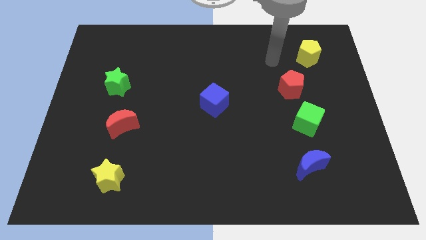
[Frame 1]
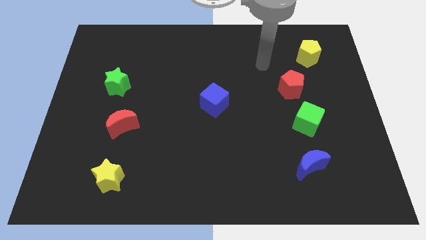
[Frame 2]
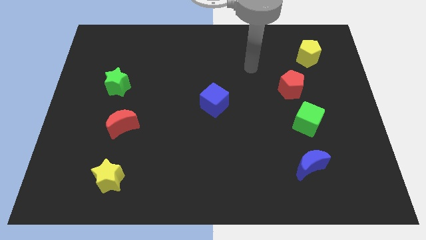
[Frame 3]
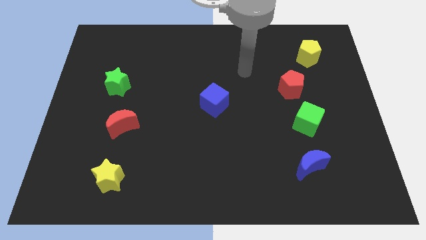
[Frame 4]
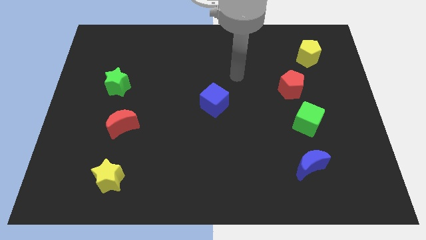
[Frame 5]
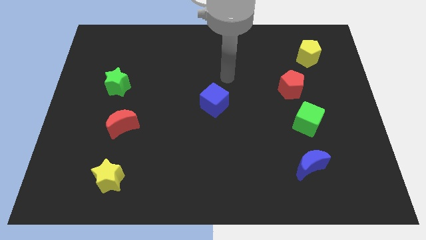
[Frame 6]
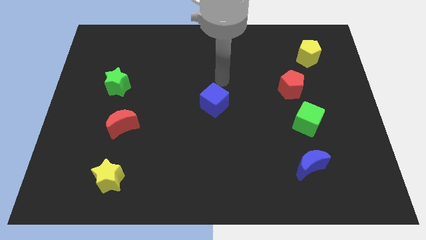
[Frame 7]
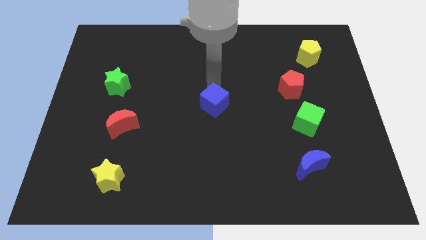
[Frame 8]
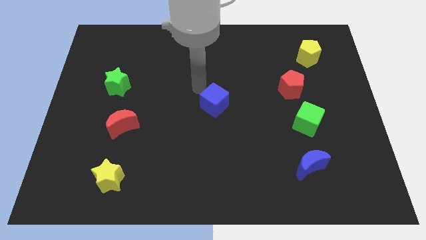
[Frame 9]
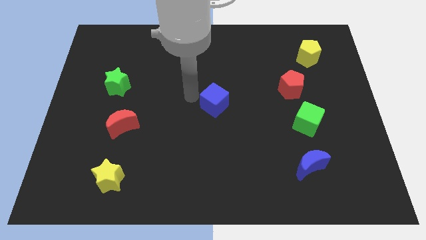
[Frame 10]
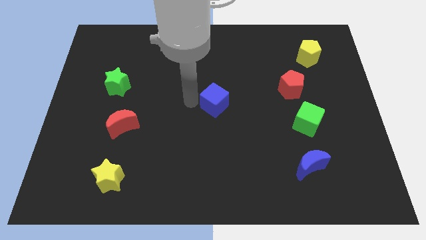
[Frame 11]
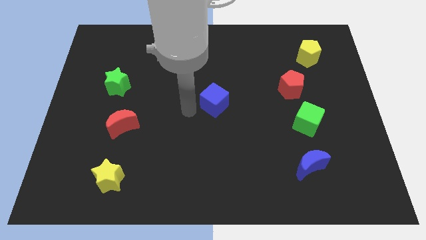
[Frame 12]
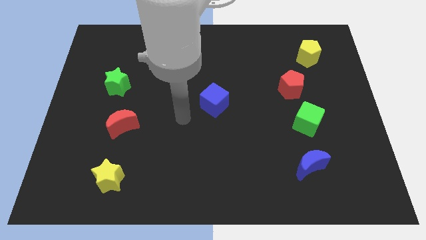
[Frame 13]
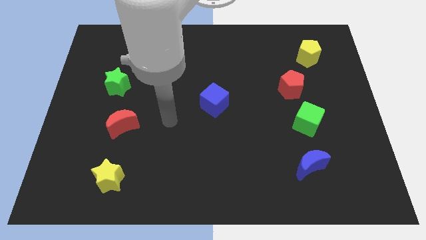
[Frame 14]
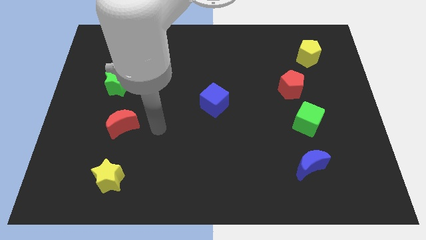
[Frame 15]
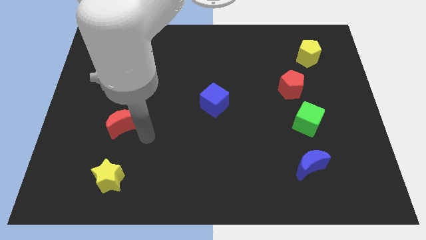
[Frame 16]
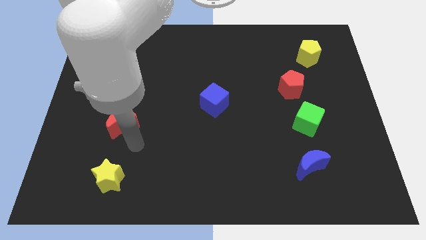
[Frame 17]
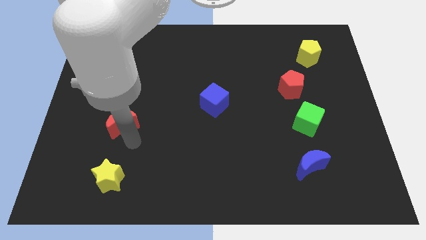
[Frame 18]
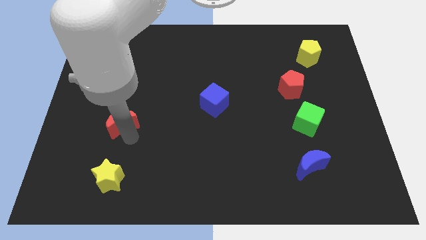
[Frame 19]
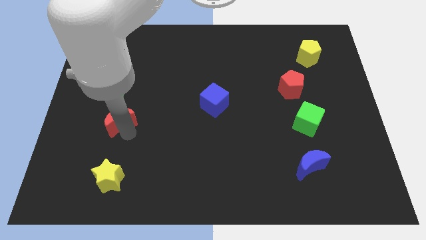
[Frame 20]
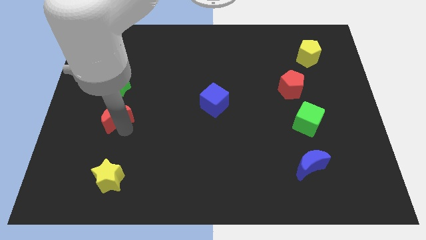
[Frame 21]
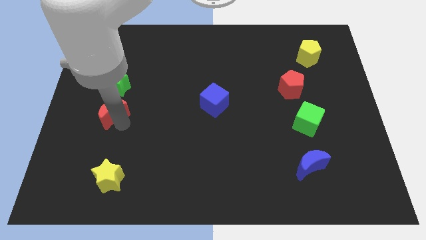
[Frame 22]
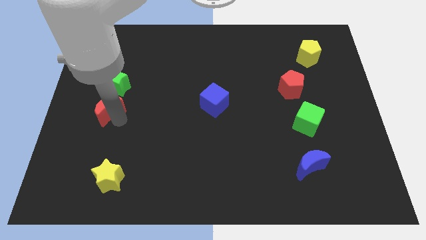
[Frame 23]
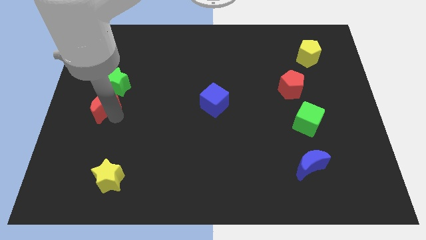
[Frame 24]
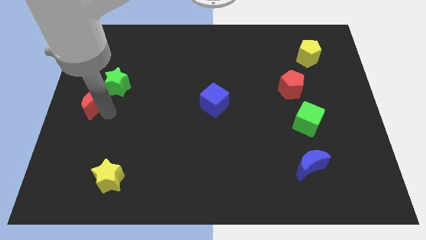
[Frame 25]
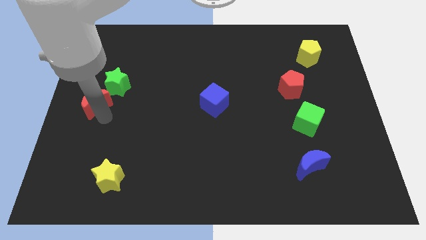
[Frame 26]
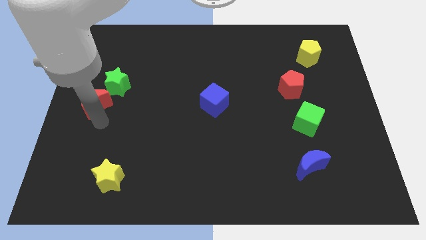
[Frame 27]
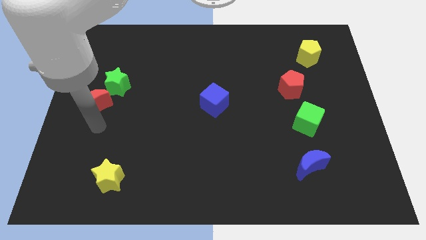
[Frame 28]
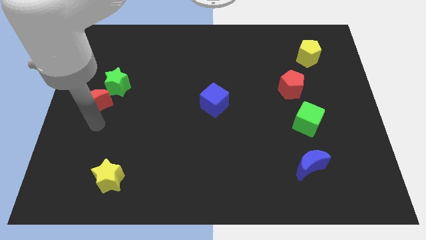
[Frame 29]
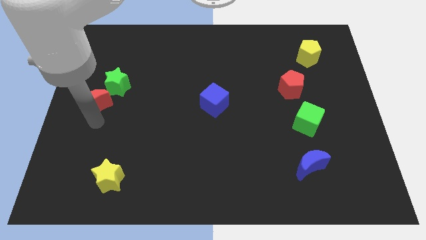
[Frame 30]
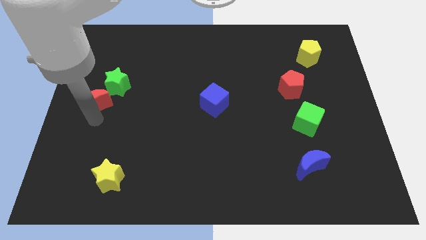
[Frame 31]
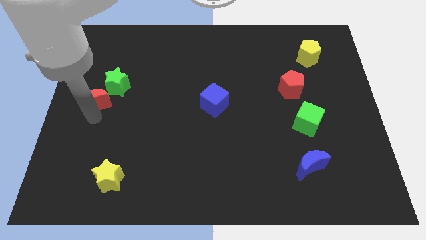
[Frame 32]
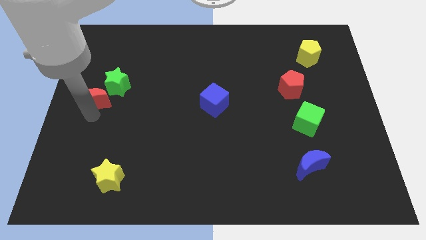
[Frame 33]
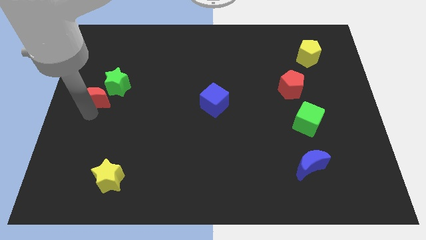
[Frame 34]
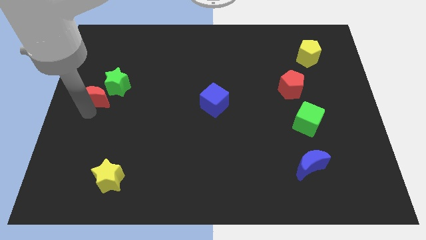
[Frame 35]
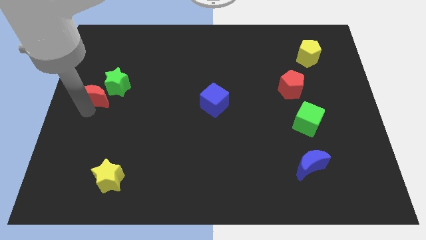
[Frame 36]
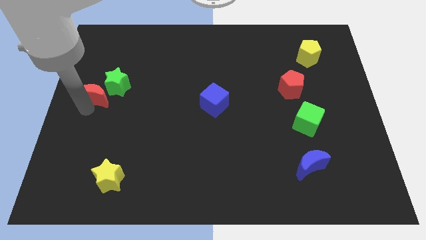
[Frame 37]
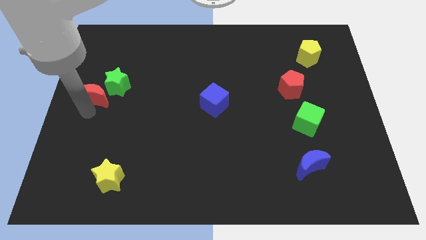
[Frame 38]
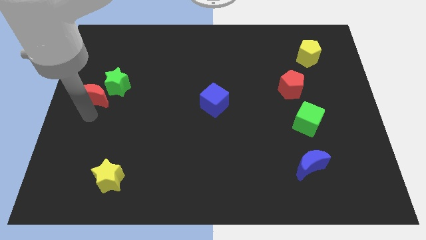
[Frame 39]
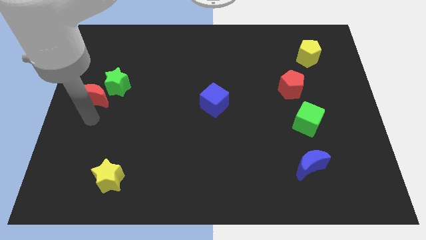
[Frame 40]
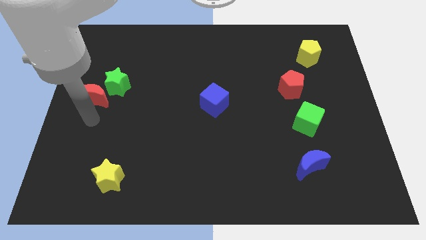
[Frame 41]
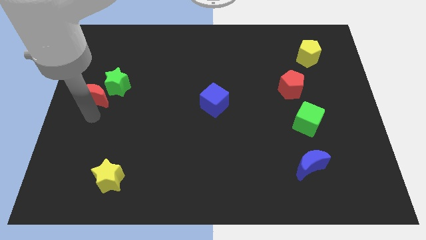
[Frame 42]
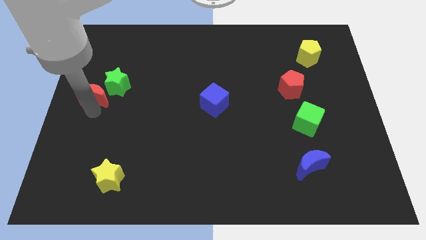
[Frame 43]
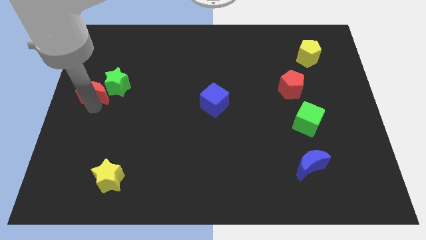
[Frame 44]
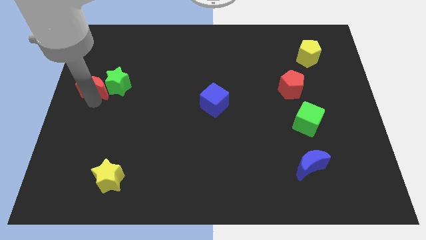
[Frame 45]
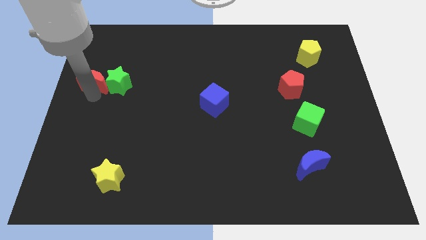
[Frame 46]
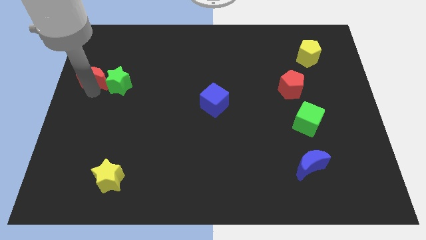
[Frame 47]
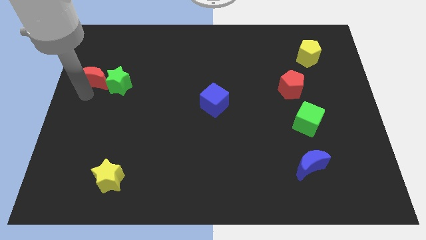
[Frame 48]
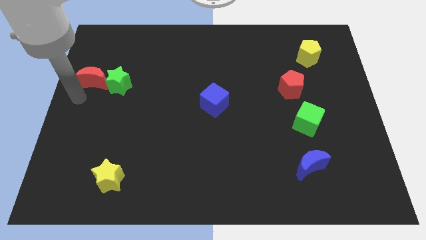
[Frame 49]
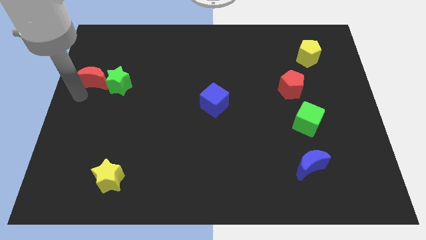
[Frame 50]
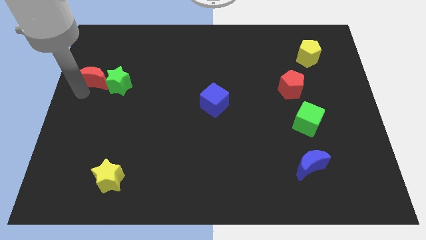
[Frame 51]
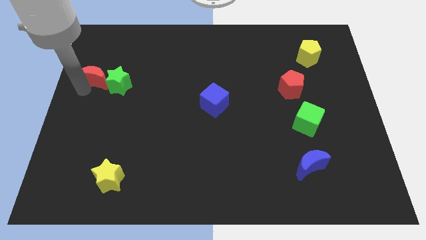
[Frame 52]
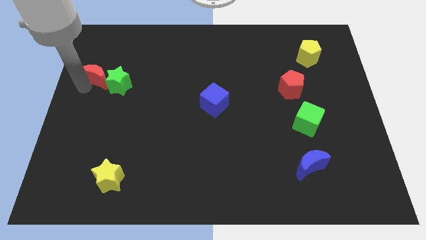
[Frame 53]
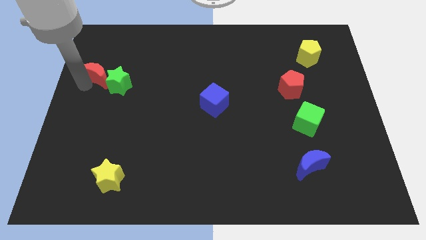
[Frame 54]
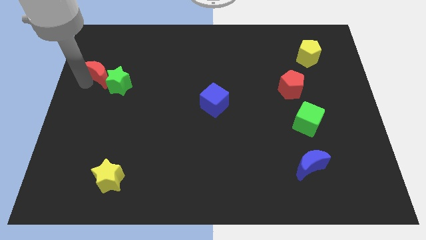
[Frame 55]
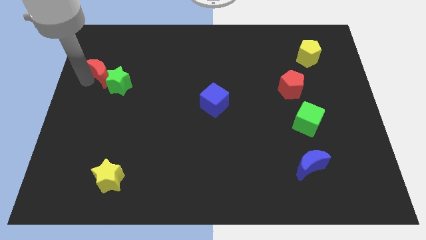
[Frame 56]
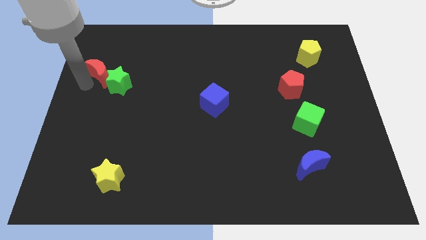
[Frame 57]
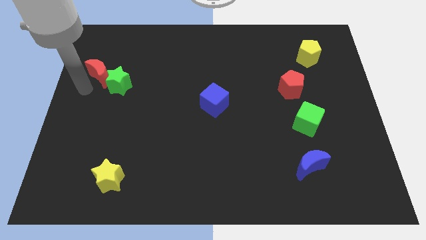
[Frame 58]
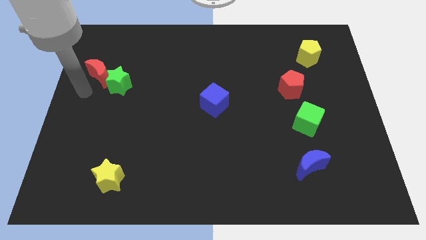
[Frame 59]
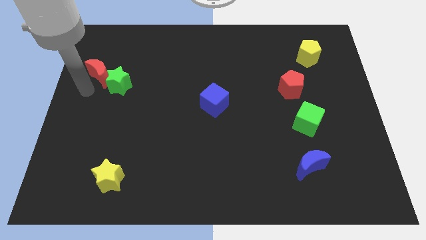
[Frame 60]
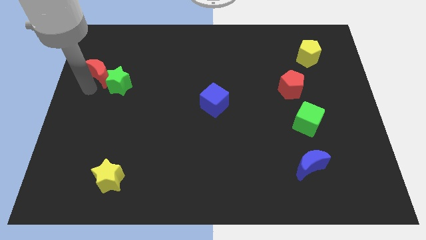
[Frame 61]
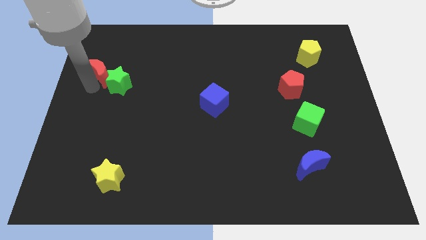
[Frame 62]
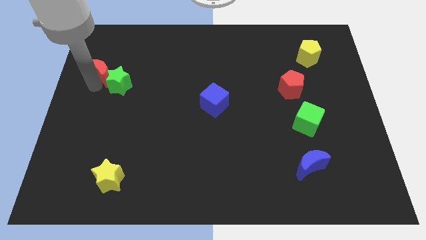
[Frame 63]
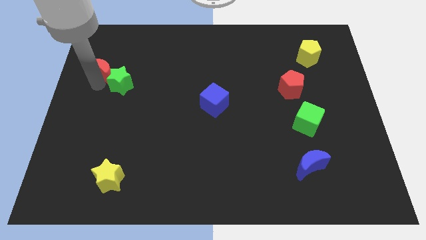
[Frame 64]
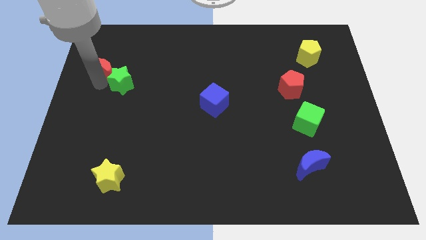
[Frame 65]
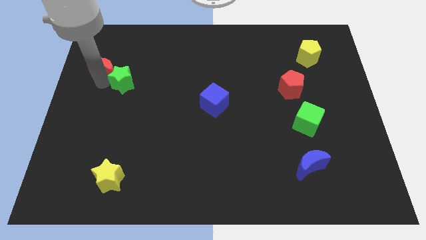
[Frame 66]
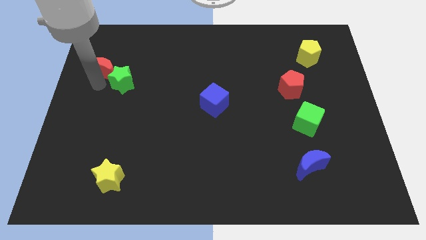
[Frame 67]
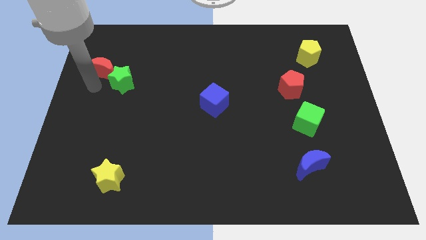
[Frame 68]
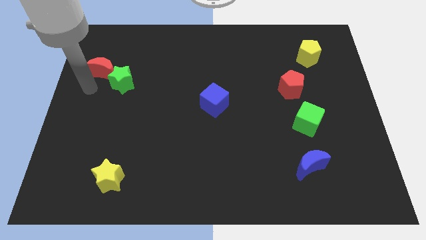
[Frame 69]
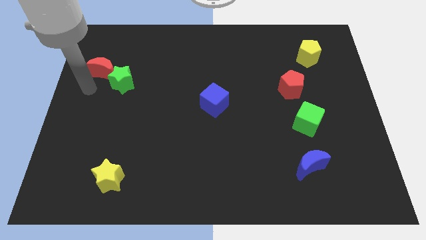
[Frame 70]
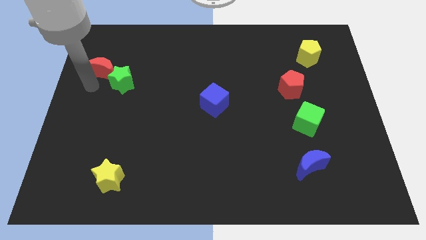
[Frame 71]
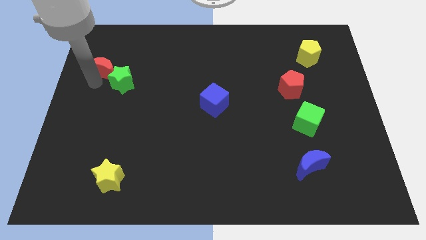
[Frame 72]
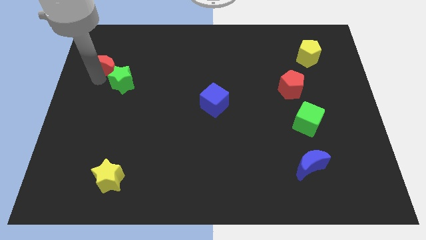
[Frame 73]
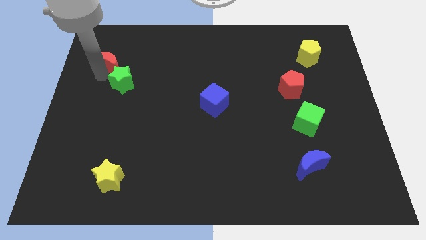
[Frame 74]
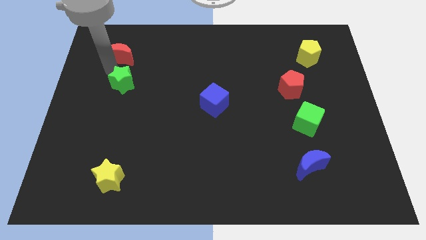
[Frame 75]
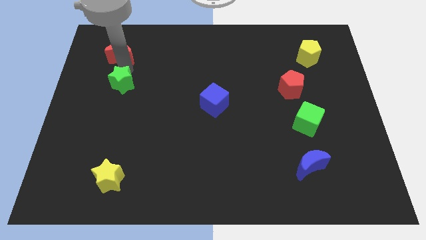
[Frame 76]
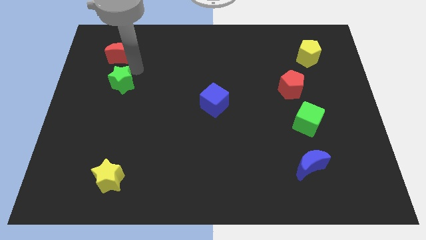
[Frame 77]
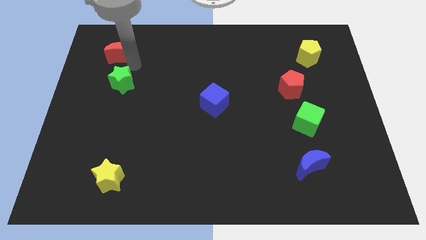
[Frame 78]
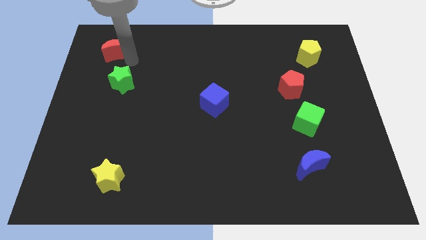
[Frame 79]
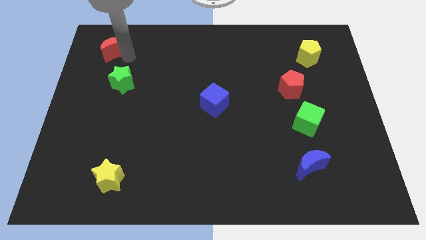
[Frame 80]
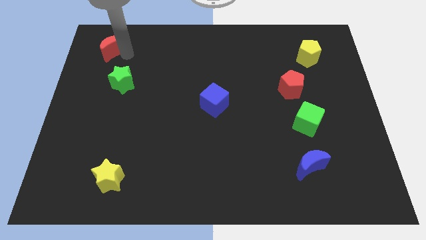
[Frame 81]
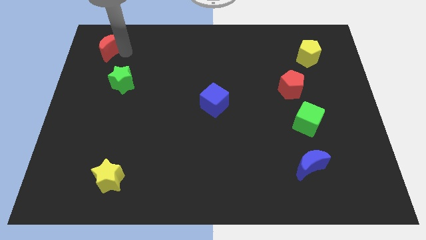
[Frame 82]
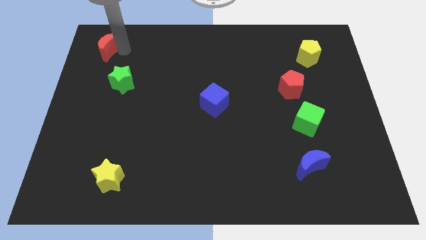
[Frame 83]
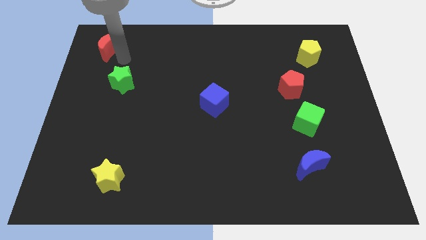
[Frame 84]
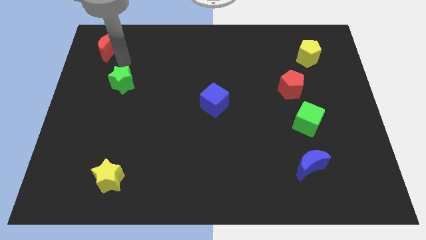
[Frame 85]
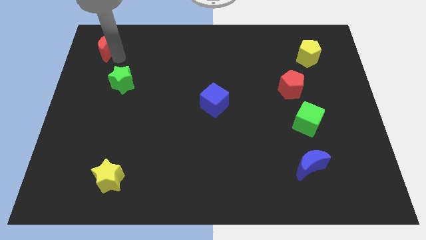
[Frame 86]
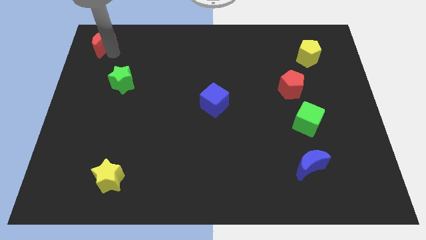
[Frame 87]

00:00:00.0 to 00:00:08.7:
put the red moon to the upper left corner
